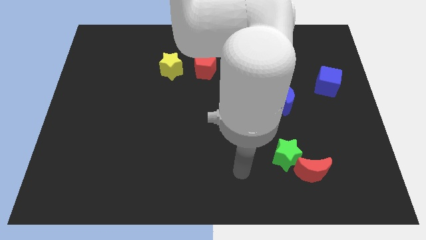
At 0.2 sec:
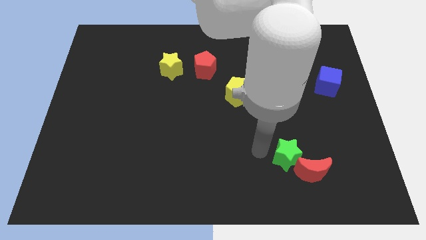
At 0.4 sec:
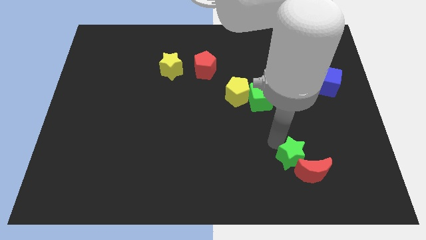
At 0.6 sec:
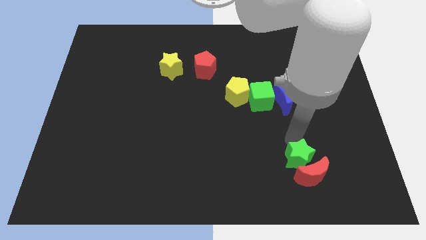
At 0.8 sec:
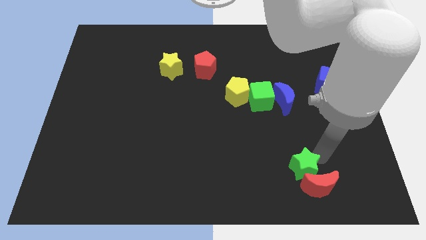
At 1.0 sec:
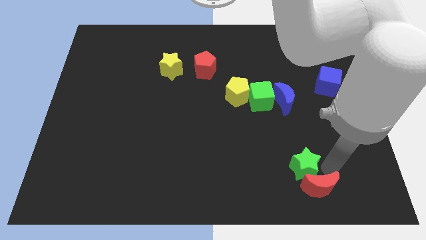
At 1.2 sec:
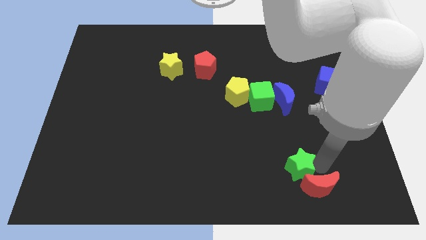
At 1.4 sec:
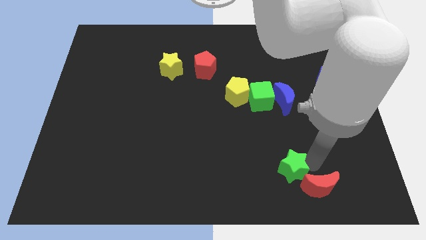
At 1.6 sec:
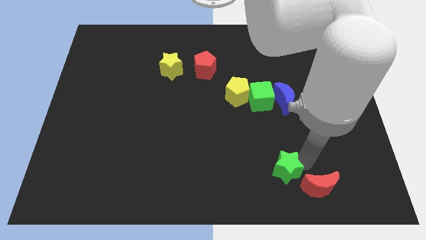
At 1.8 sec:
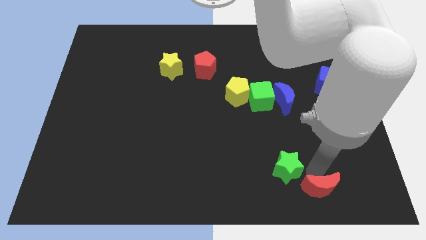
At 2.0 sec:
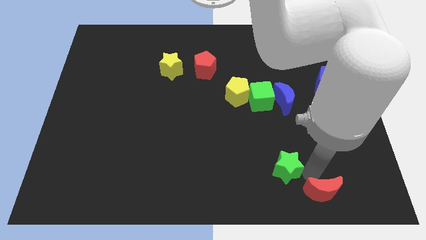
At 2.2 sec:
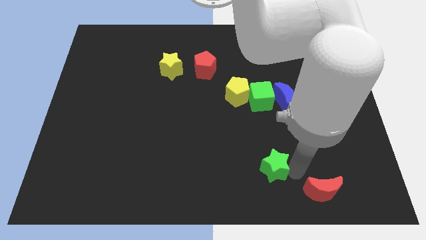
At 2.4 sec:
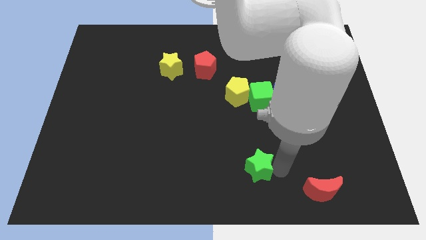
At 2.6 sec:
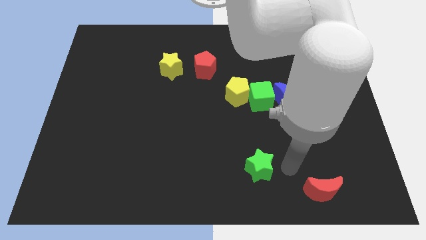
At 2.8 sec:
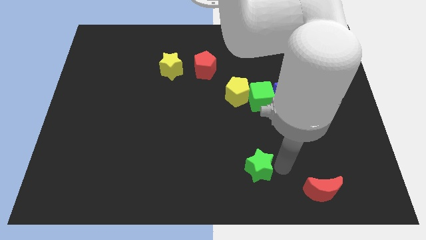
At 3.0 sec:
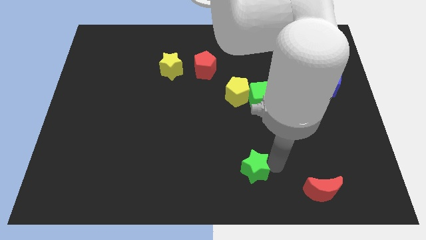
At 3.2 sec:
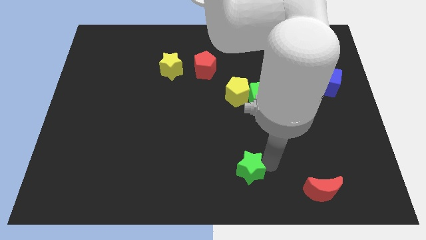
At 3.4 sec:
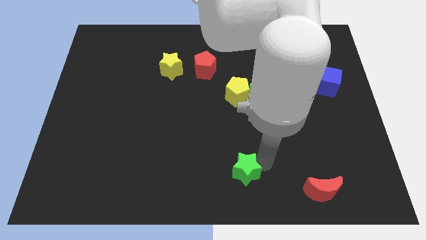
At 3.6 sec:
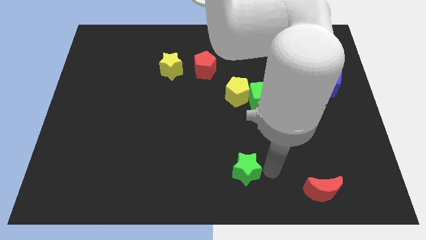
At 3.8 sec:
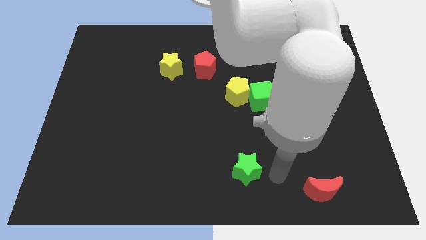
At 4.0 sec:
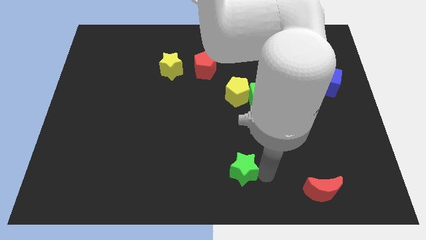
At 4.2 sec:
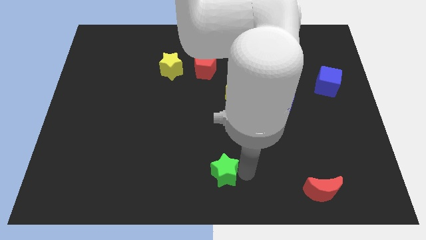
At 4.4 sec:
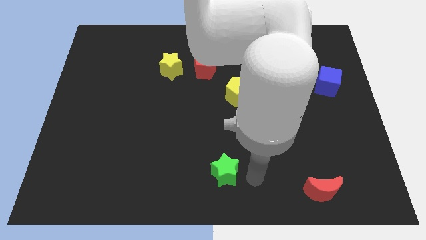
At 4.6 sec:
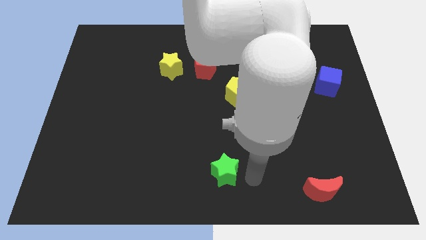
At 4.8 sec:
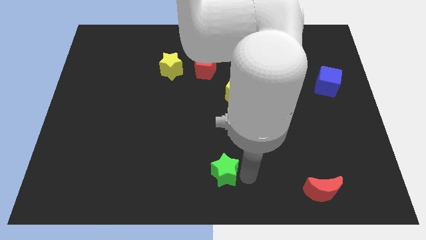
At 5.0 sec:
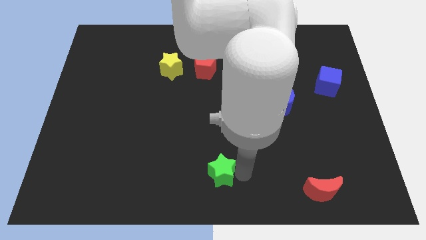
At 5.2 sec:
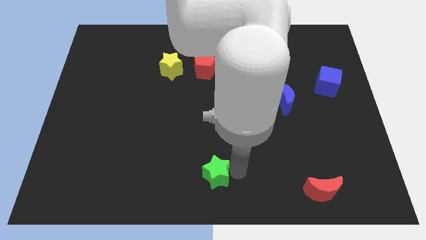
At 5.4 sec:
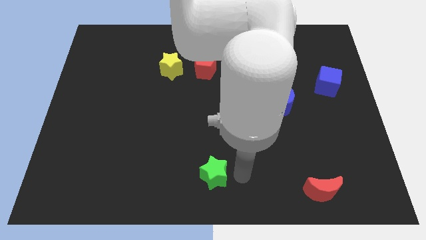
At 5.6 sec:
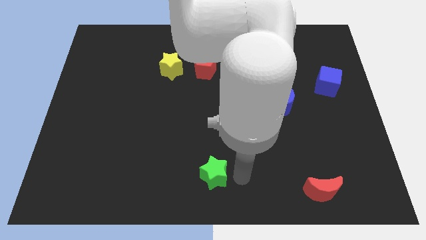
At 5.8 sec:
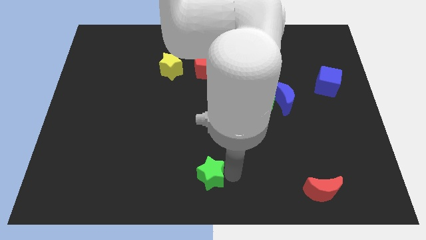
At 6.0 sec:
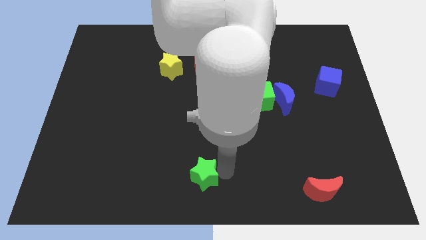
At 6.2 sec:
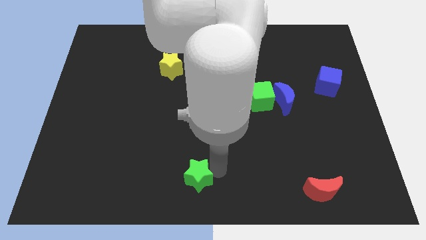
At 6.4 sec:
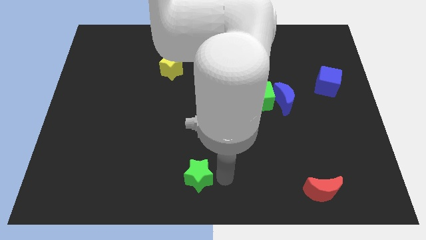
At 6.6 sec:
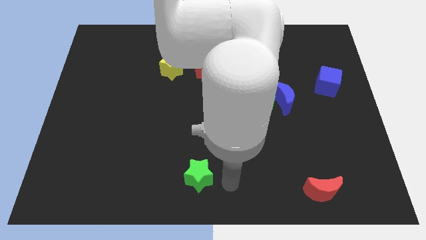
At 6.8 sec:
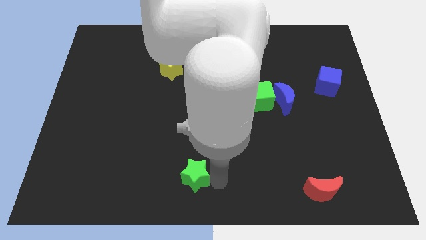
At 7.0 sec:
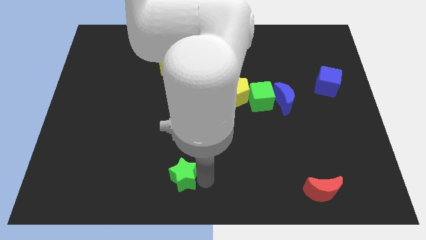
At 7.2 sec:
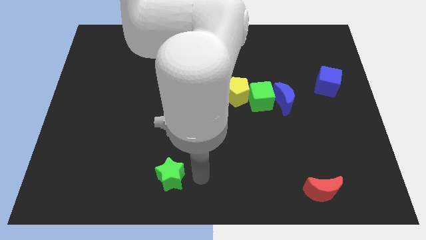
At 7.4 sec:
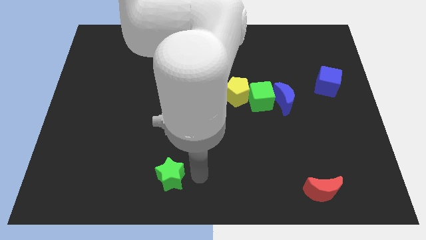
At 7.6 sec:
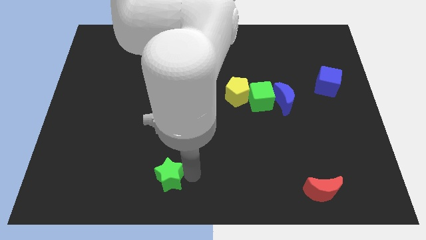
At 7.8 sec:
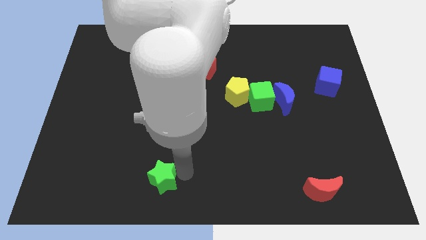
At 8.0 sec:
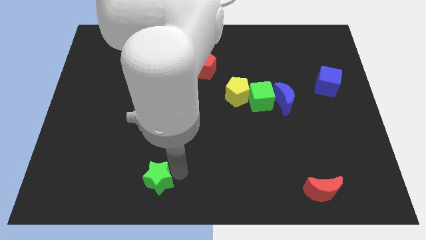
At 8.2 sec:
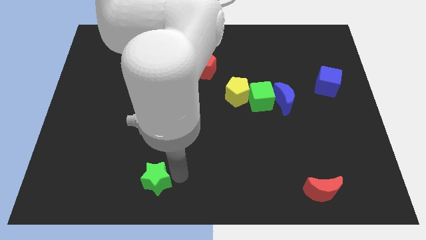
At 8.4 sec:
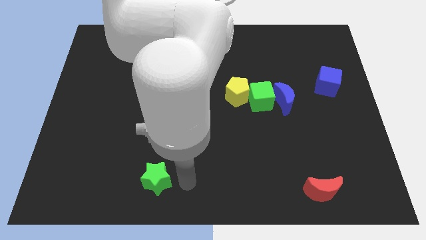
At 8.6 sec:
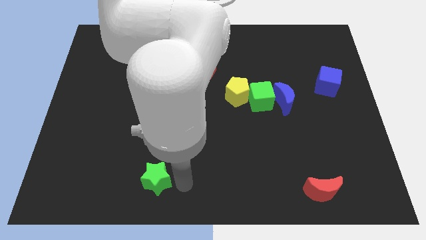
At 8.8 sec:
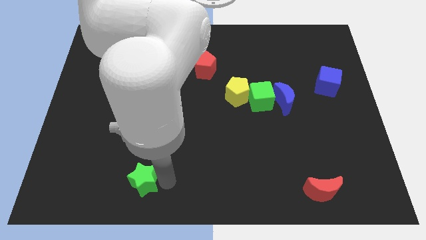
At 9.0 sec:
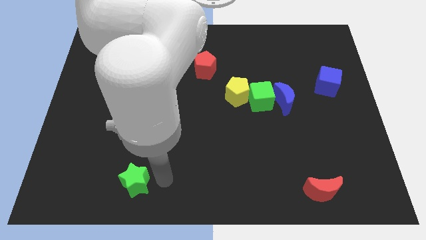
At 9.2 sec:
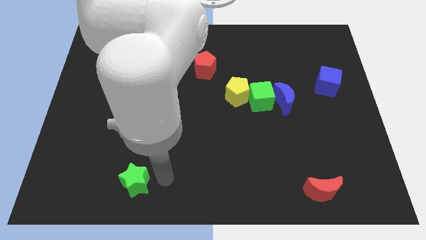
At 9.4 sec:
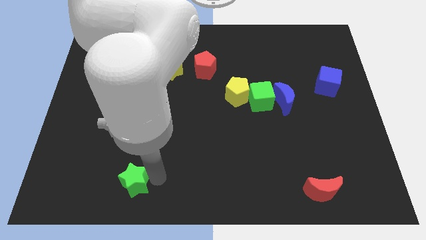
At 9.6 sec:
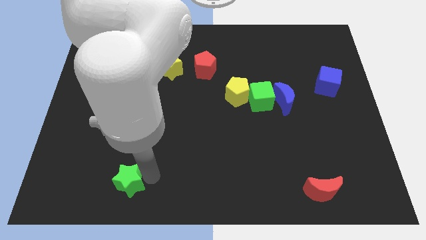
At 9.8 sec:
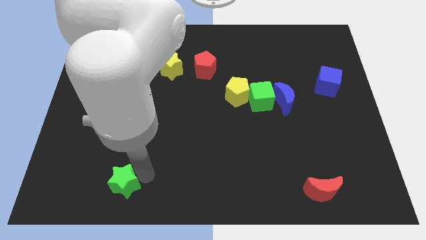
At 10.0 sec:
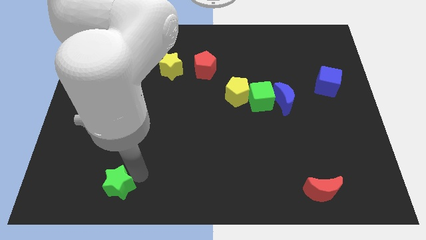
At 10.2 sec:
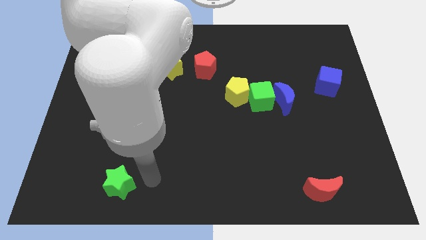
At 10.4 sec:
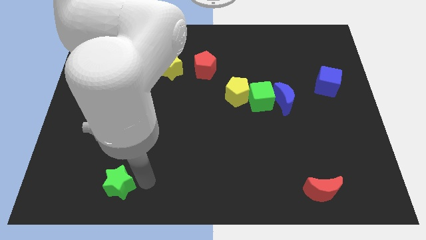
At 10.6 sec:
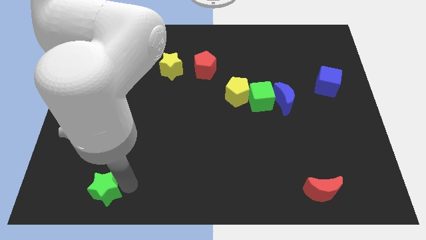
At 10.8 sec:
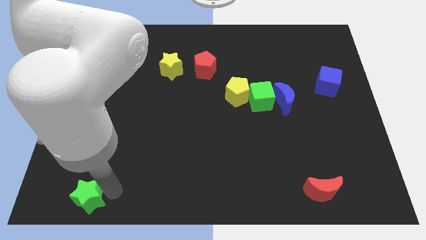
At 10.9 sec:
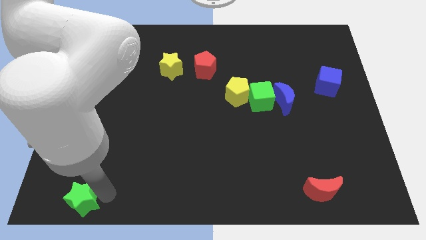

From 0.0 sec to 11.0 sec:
move the green star to the bottom left corner
